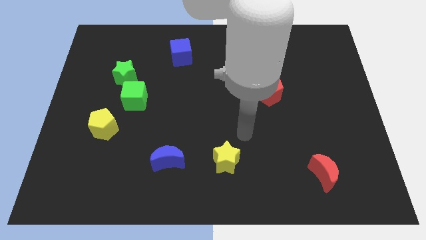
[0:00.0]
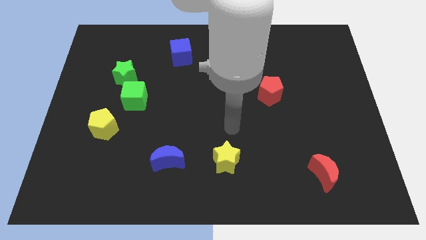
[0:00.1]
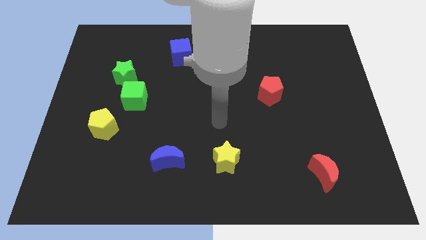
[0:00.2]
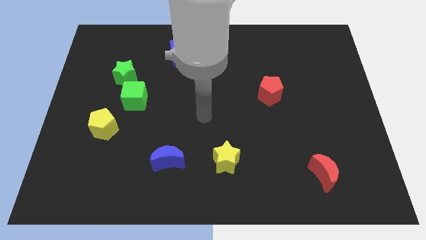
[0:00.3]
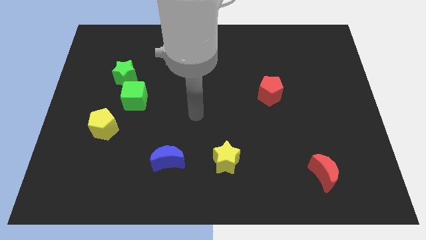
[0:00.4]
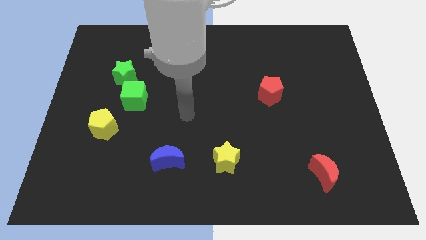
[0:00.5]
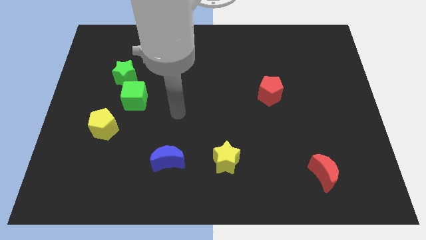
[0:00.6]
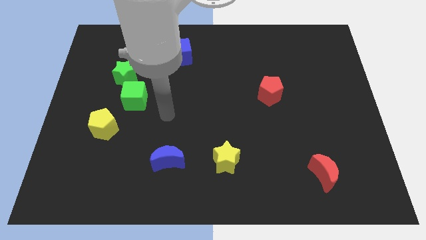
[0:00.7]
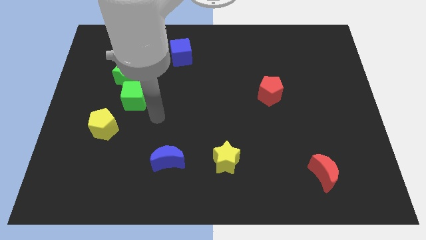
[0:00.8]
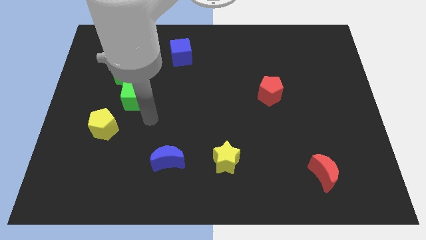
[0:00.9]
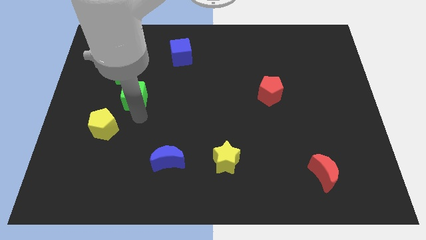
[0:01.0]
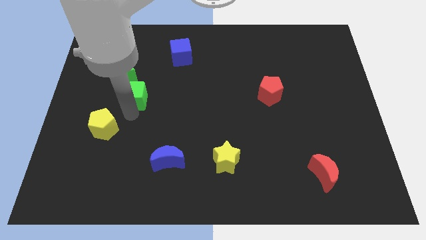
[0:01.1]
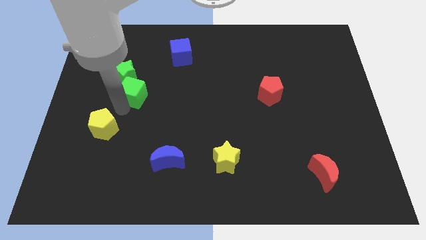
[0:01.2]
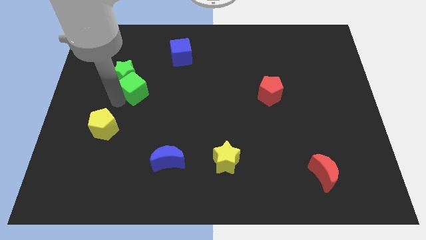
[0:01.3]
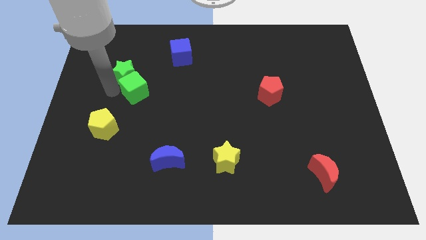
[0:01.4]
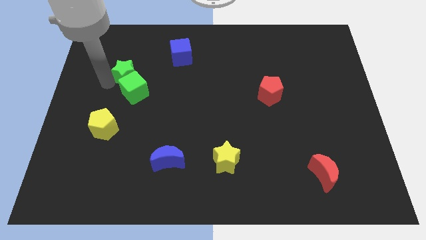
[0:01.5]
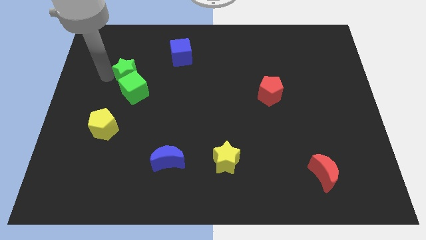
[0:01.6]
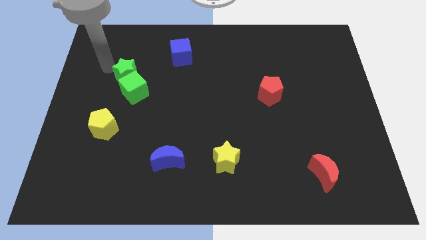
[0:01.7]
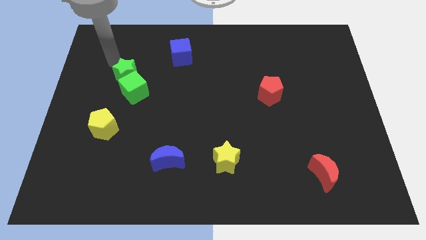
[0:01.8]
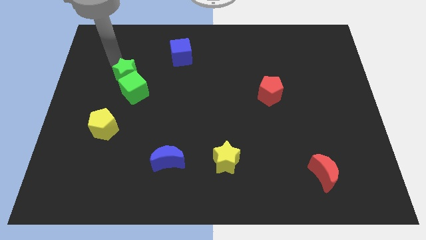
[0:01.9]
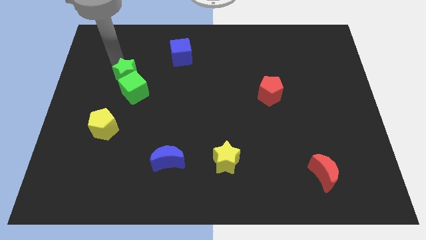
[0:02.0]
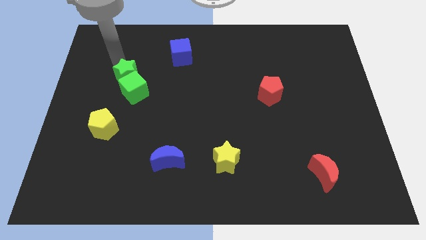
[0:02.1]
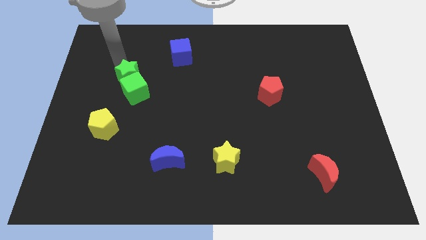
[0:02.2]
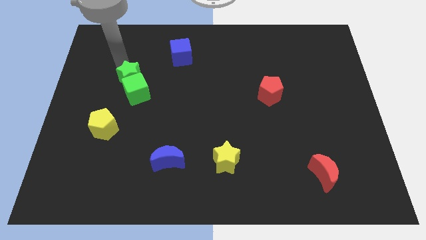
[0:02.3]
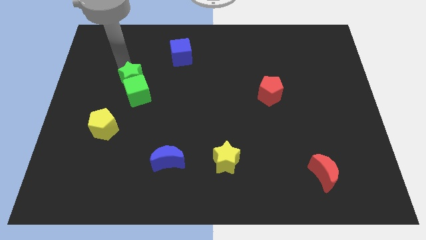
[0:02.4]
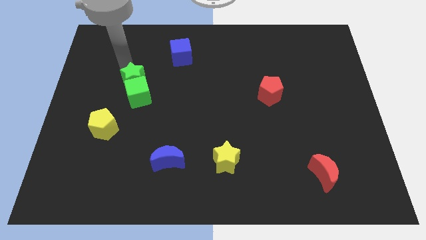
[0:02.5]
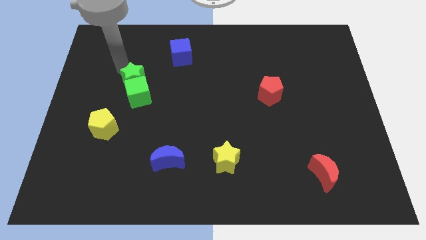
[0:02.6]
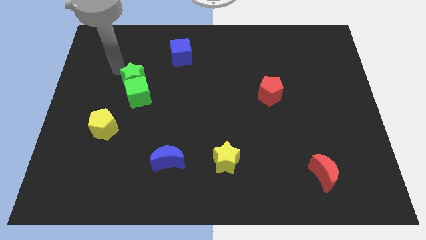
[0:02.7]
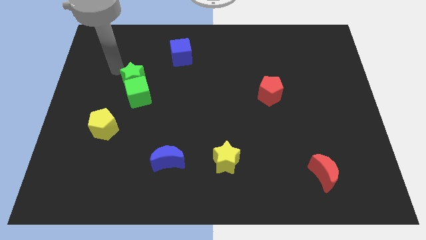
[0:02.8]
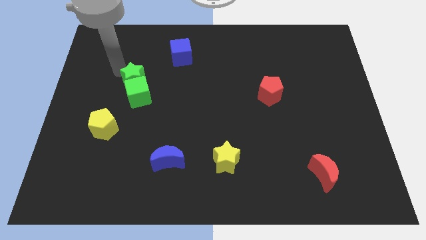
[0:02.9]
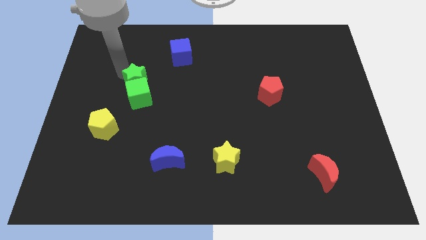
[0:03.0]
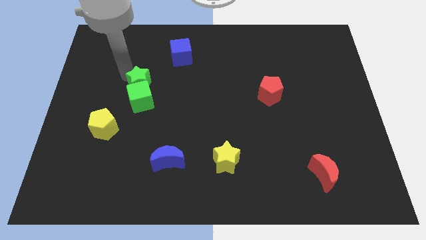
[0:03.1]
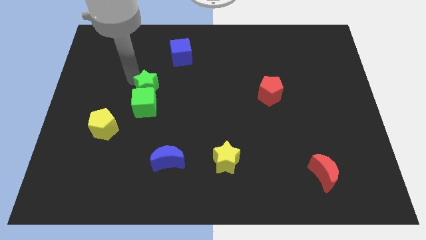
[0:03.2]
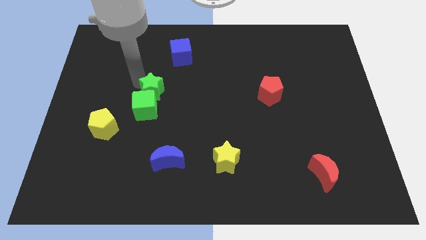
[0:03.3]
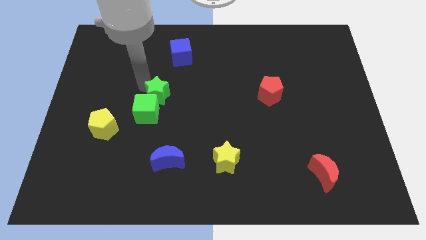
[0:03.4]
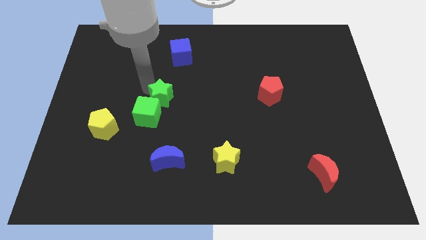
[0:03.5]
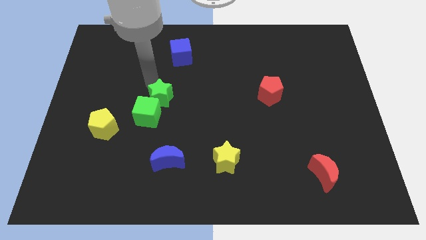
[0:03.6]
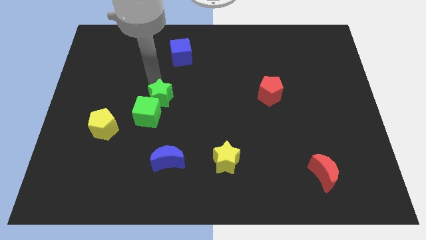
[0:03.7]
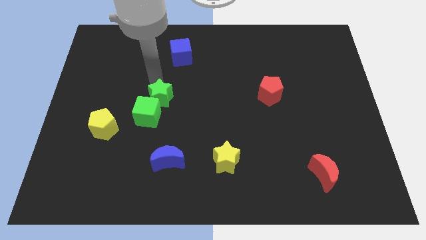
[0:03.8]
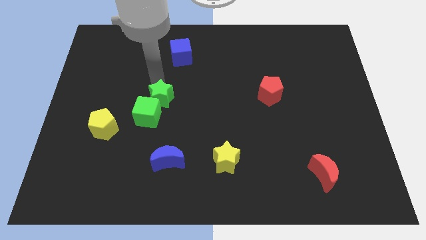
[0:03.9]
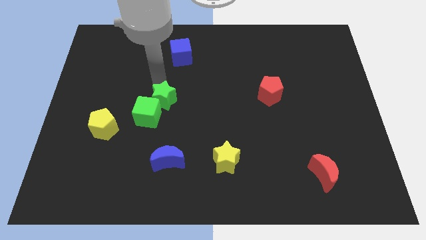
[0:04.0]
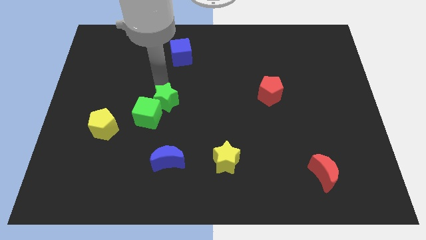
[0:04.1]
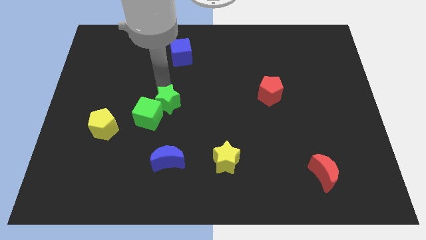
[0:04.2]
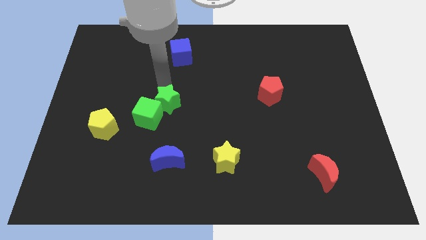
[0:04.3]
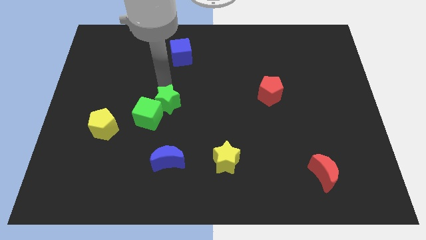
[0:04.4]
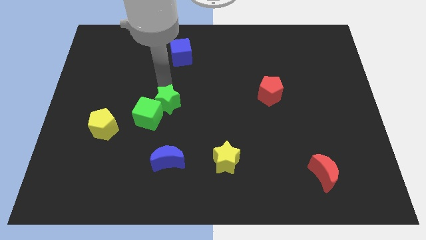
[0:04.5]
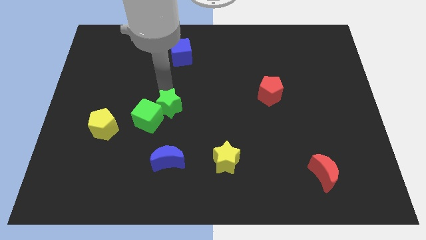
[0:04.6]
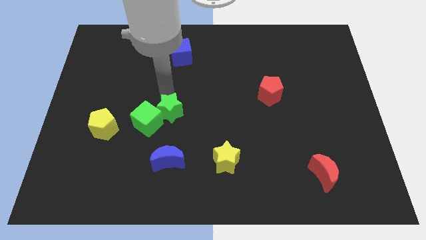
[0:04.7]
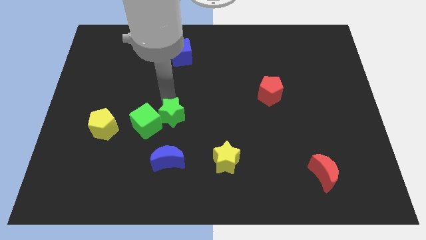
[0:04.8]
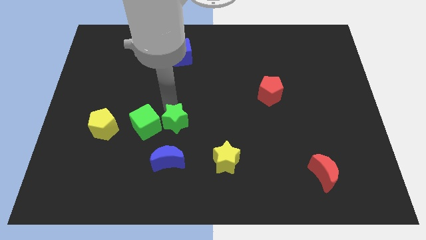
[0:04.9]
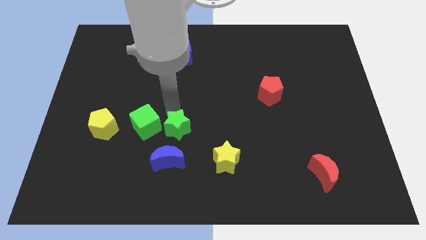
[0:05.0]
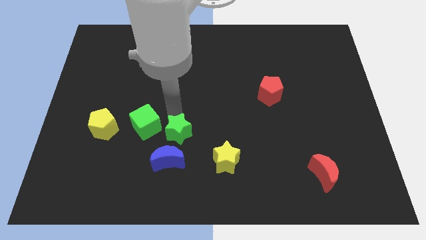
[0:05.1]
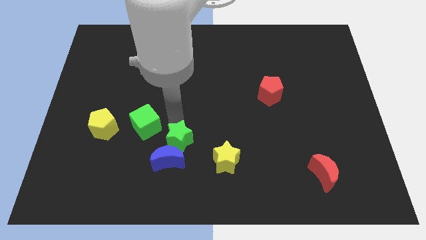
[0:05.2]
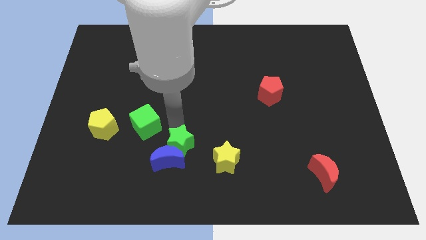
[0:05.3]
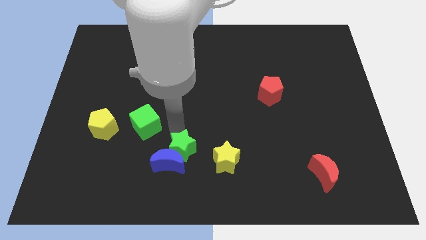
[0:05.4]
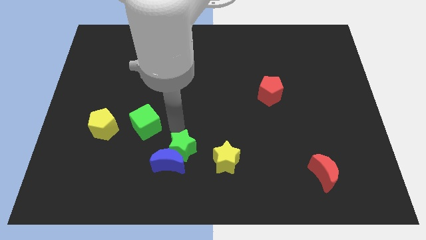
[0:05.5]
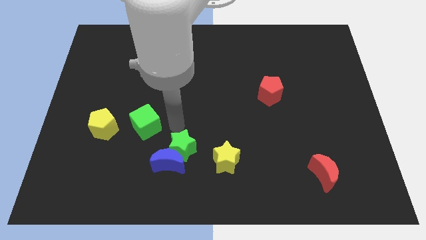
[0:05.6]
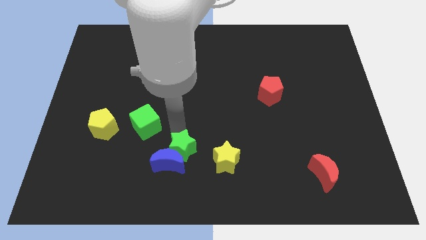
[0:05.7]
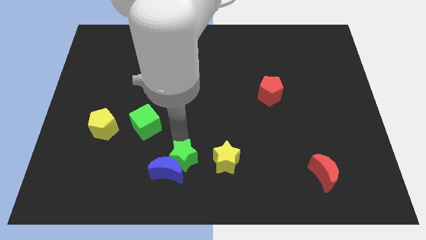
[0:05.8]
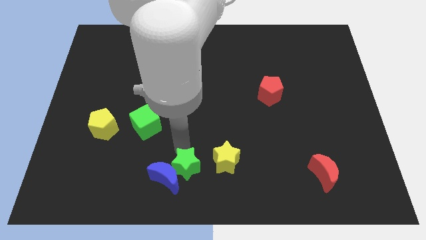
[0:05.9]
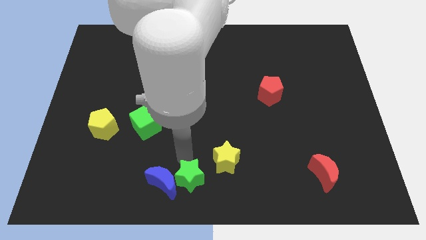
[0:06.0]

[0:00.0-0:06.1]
push the green star to the bottom right of the blue moon

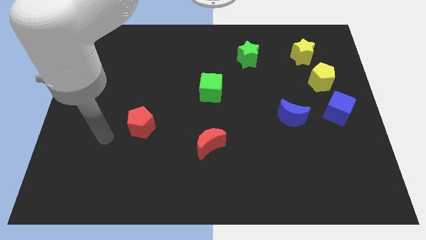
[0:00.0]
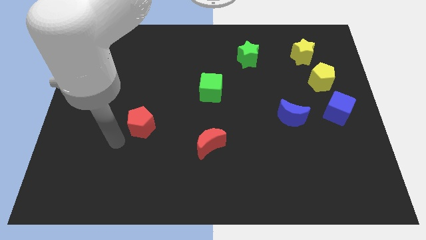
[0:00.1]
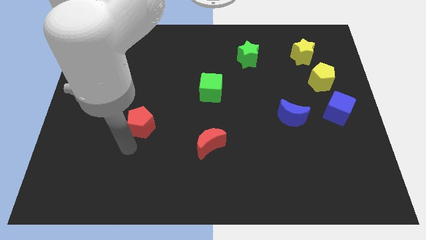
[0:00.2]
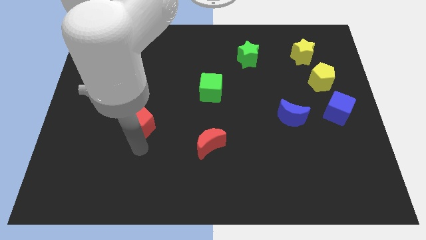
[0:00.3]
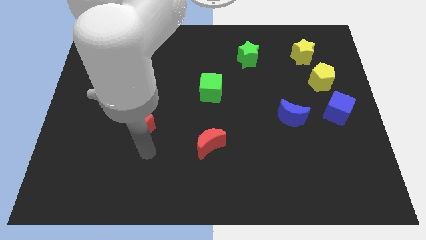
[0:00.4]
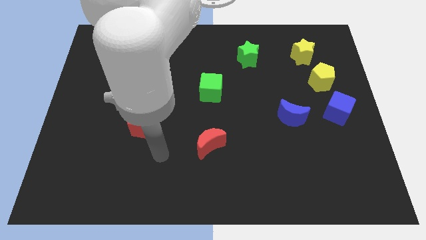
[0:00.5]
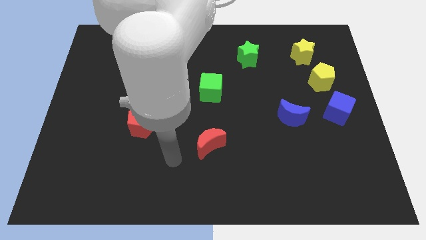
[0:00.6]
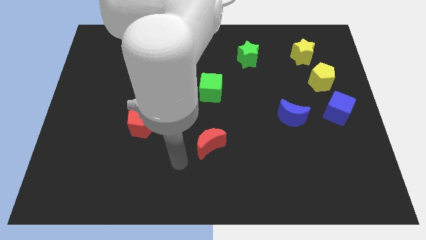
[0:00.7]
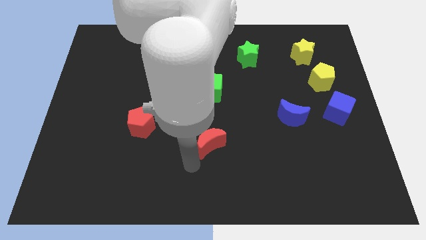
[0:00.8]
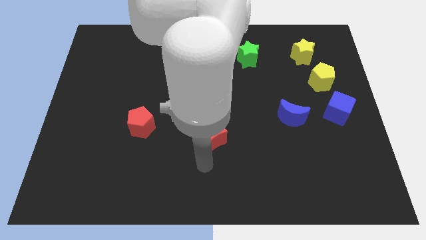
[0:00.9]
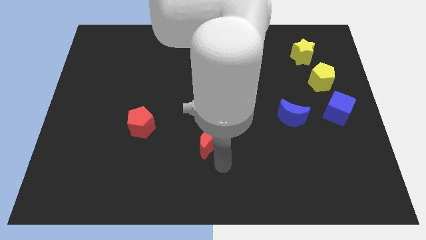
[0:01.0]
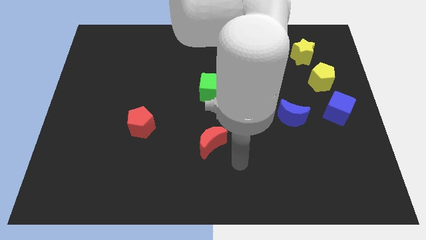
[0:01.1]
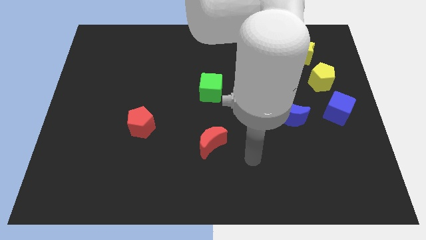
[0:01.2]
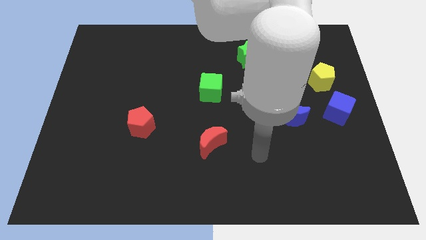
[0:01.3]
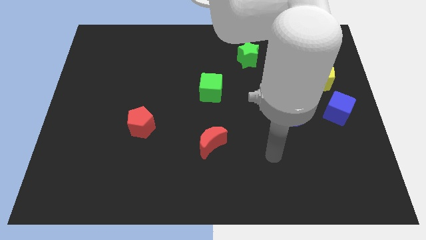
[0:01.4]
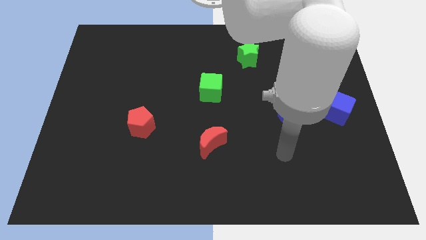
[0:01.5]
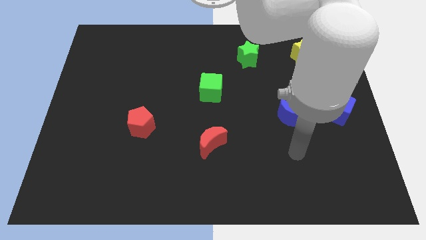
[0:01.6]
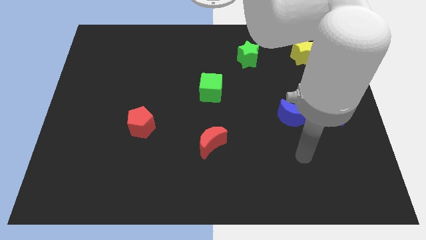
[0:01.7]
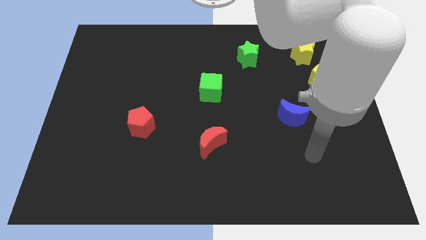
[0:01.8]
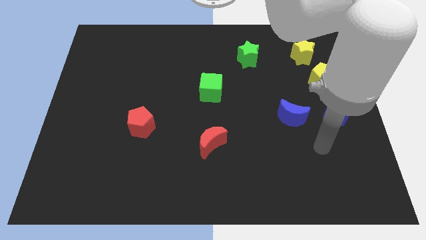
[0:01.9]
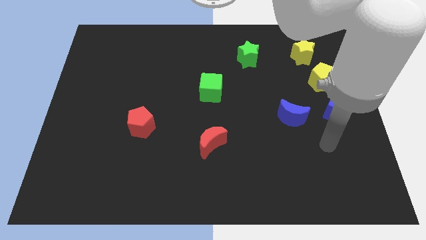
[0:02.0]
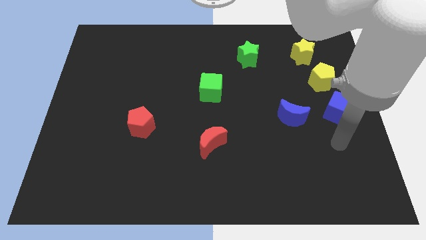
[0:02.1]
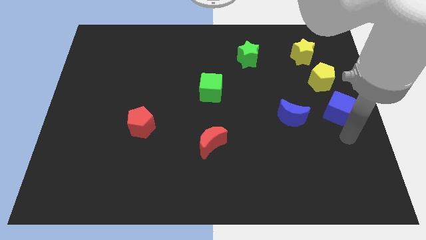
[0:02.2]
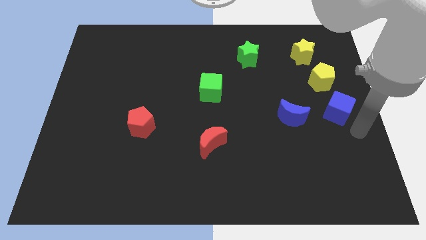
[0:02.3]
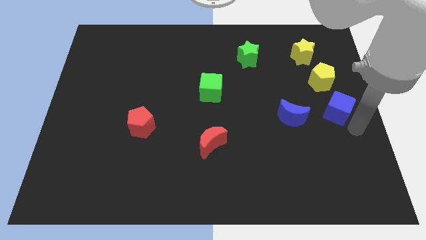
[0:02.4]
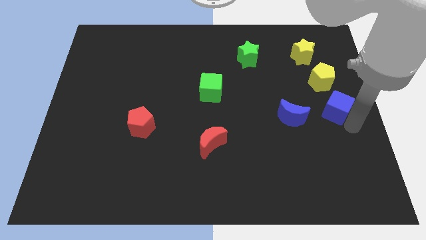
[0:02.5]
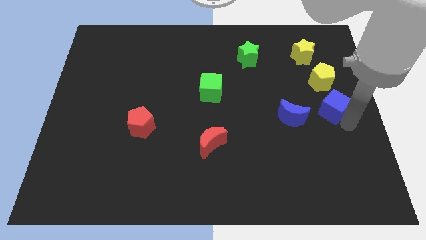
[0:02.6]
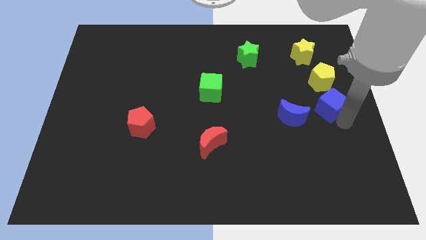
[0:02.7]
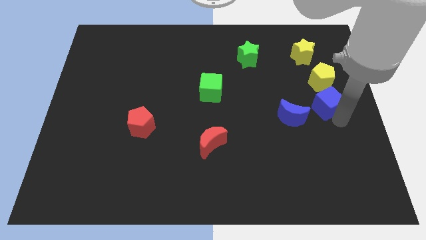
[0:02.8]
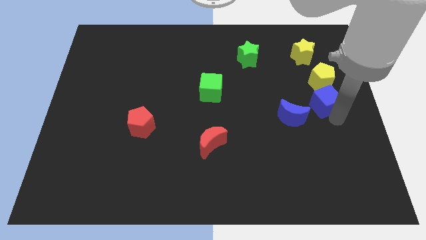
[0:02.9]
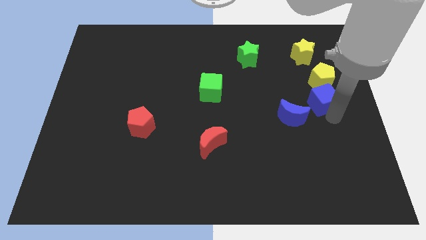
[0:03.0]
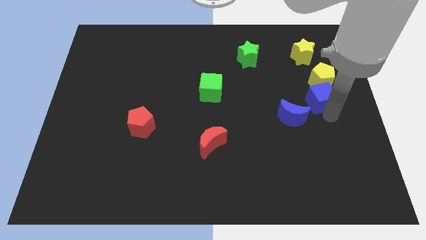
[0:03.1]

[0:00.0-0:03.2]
move the blue cube below the yellow star
